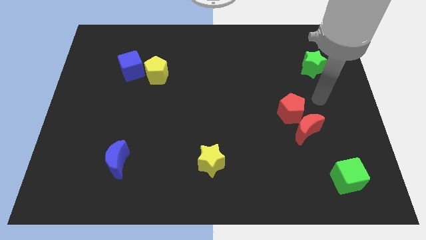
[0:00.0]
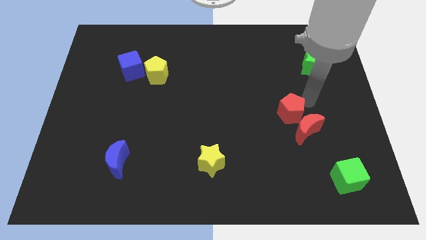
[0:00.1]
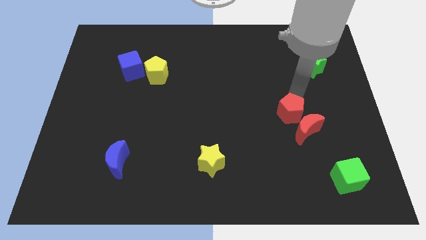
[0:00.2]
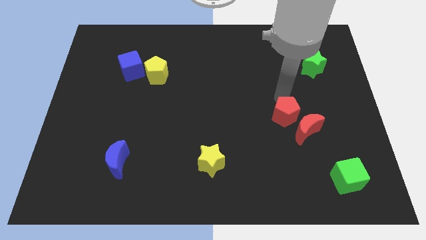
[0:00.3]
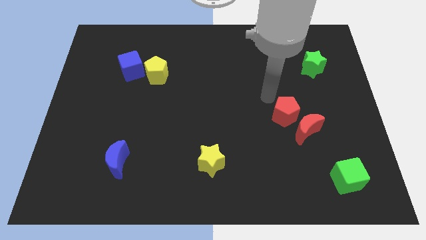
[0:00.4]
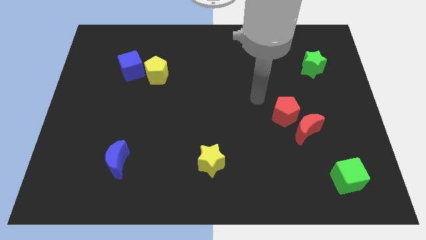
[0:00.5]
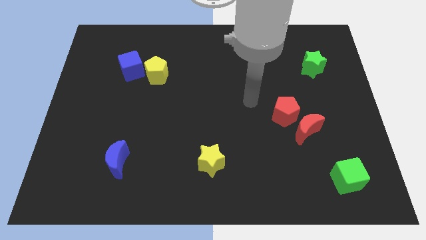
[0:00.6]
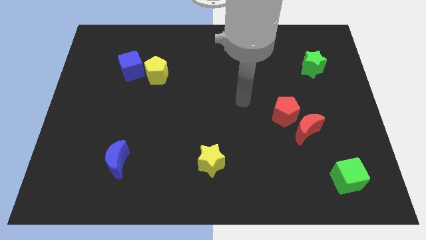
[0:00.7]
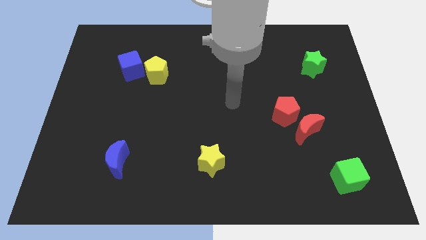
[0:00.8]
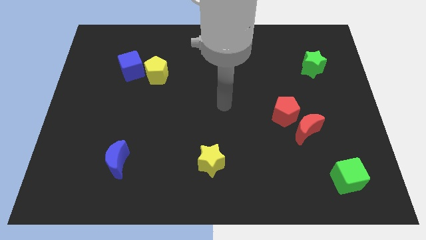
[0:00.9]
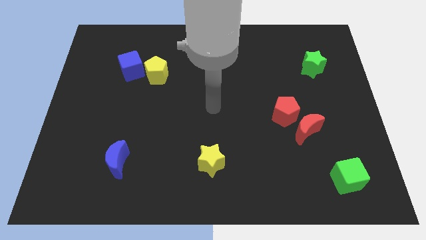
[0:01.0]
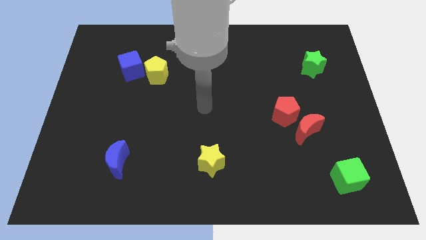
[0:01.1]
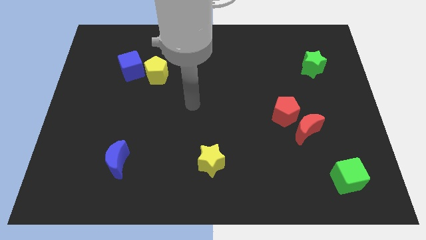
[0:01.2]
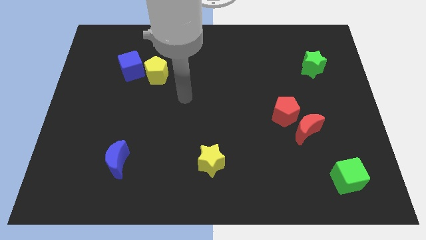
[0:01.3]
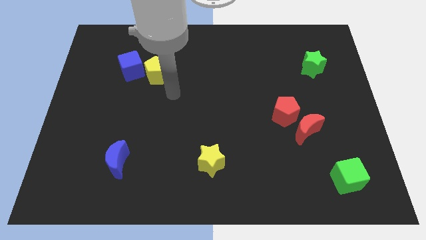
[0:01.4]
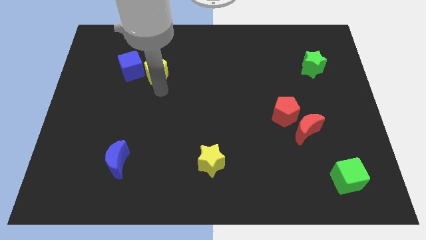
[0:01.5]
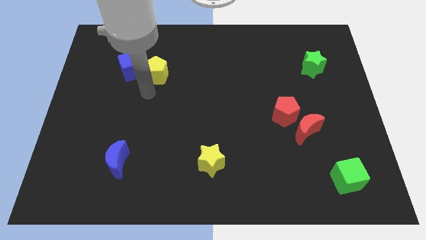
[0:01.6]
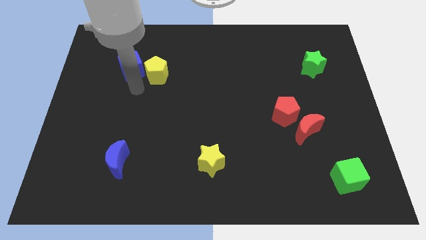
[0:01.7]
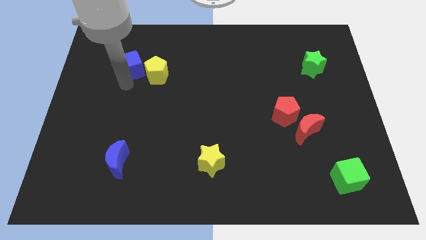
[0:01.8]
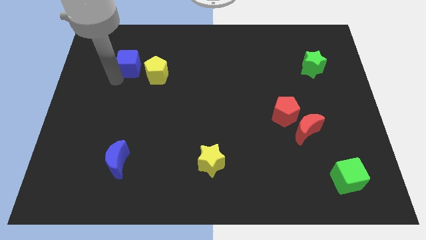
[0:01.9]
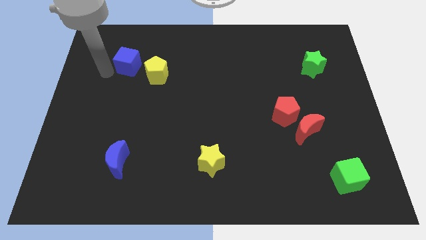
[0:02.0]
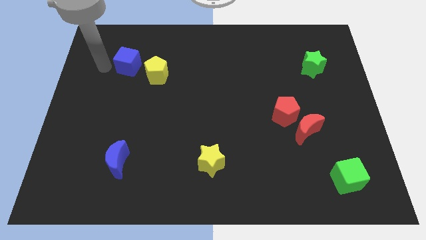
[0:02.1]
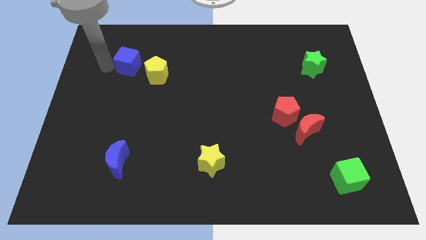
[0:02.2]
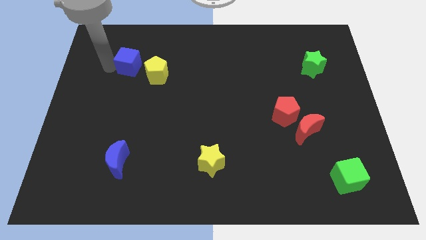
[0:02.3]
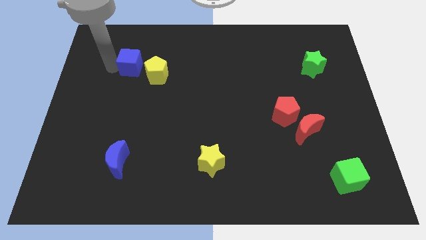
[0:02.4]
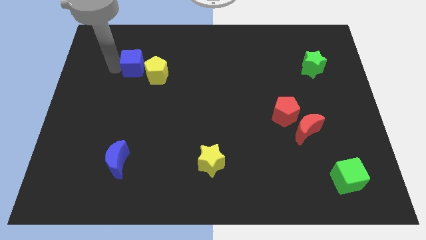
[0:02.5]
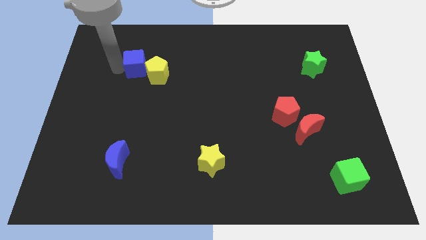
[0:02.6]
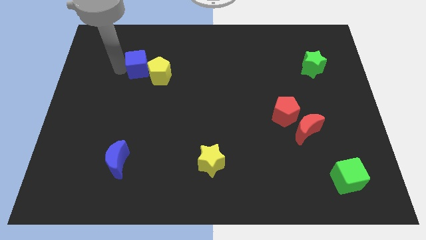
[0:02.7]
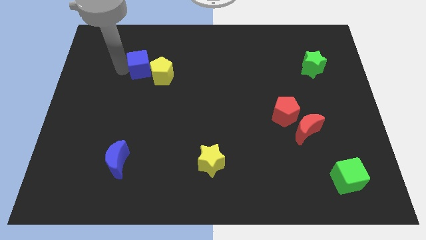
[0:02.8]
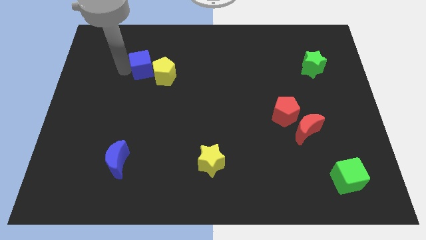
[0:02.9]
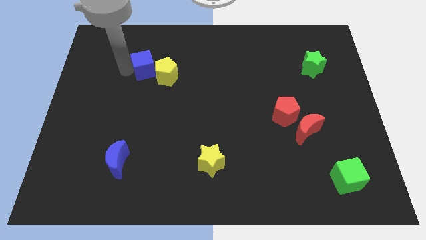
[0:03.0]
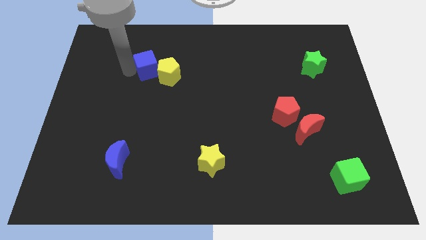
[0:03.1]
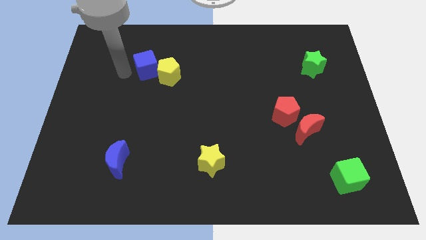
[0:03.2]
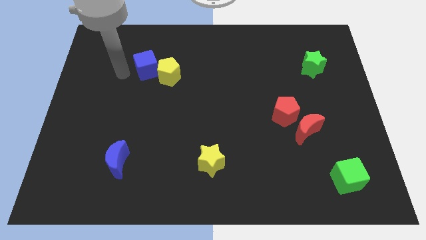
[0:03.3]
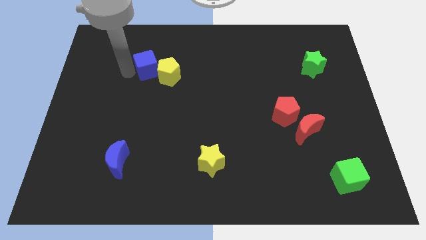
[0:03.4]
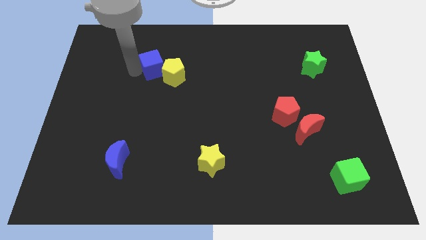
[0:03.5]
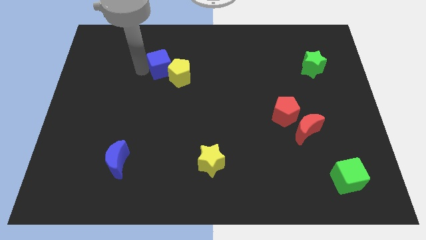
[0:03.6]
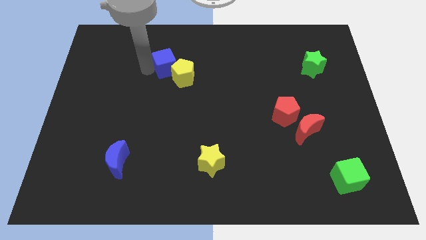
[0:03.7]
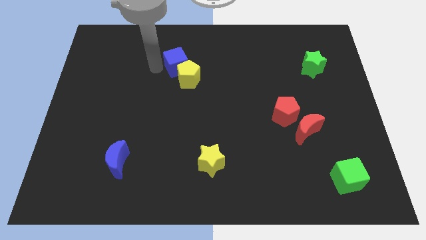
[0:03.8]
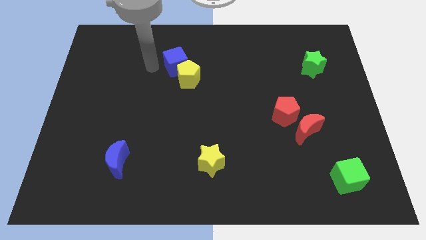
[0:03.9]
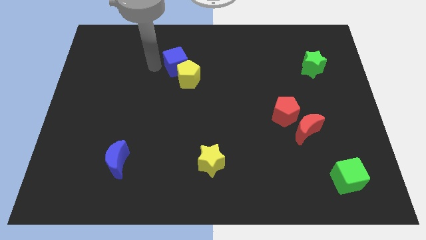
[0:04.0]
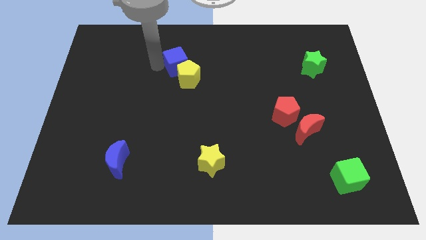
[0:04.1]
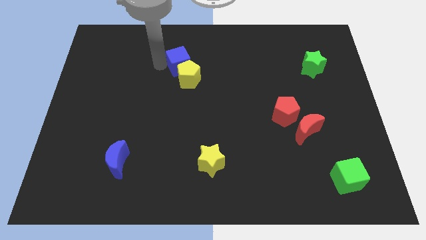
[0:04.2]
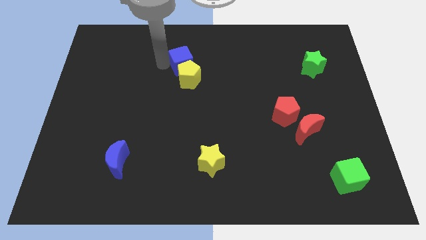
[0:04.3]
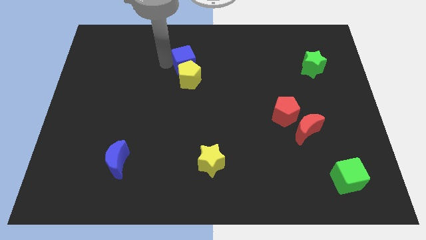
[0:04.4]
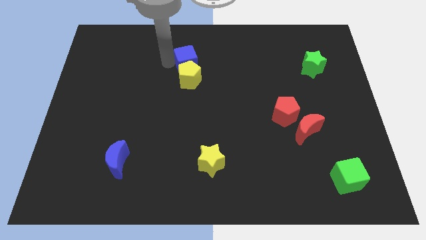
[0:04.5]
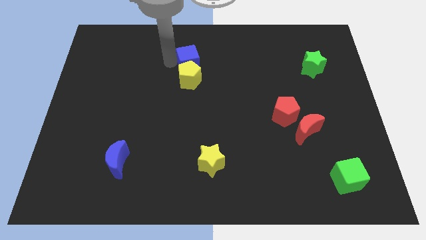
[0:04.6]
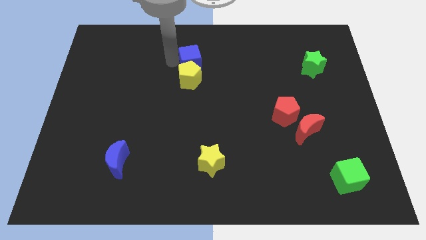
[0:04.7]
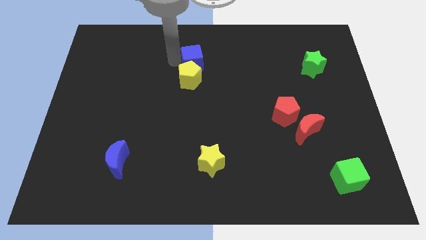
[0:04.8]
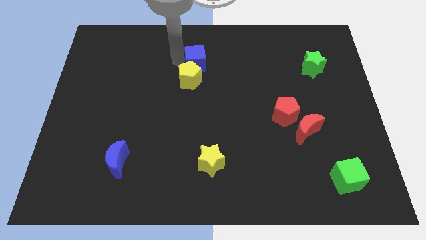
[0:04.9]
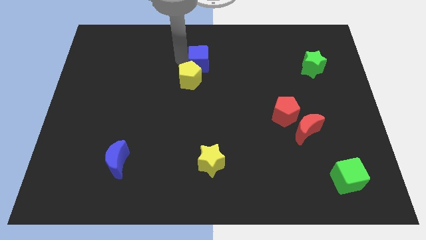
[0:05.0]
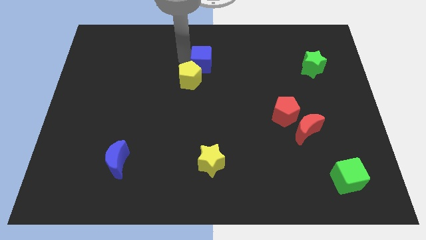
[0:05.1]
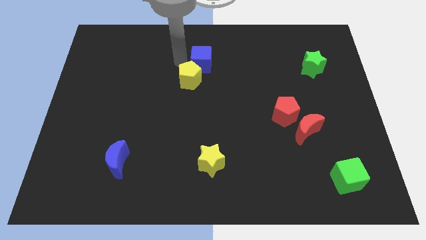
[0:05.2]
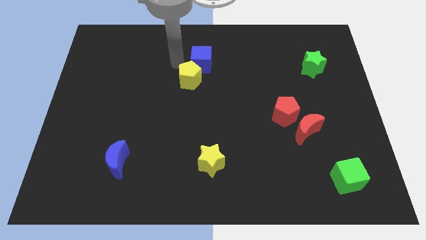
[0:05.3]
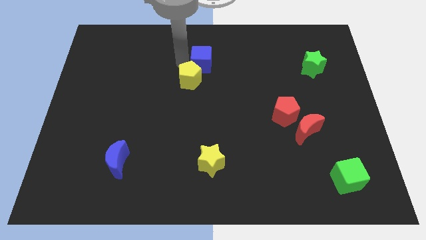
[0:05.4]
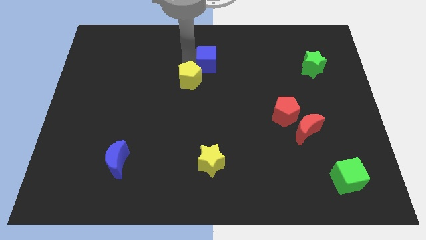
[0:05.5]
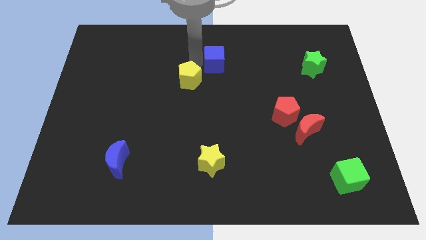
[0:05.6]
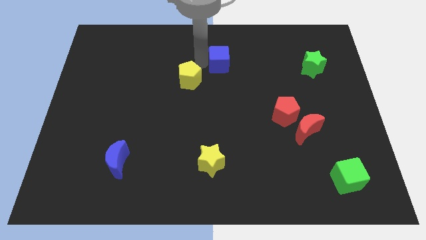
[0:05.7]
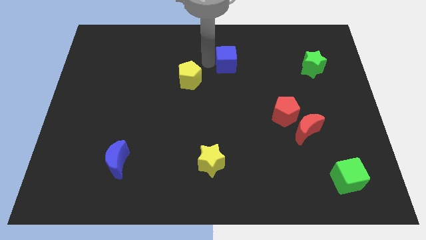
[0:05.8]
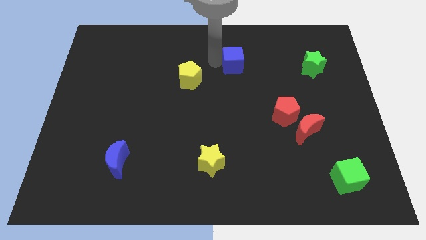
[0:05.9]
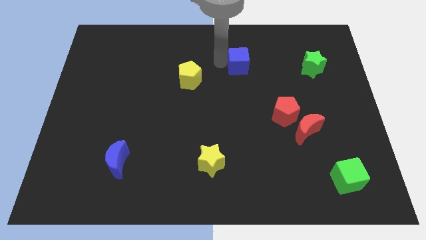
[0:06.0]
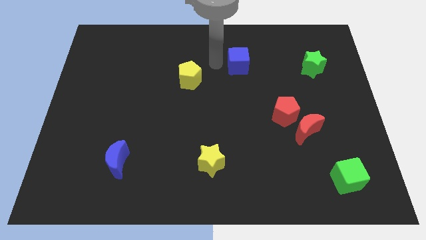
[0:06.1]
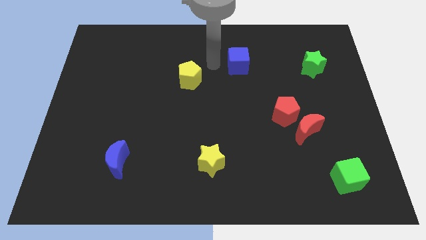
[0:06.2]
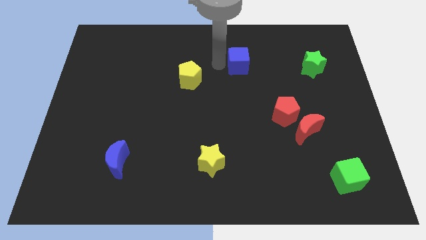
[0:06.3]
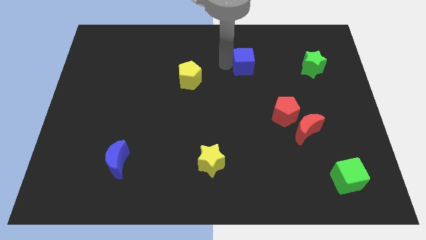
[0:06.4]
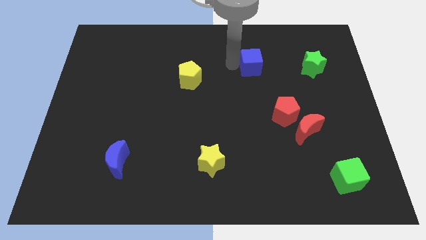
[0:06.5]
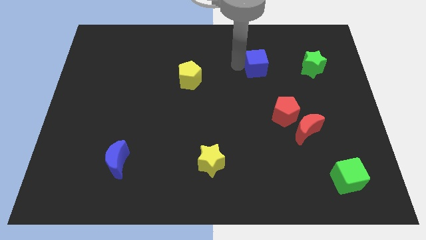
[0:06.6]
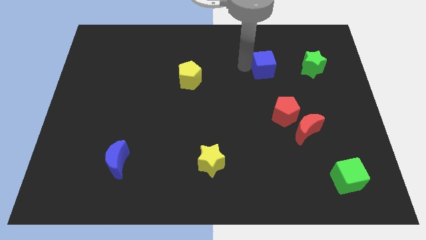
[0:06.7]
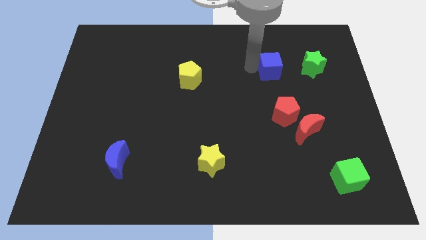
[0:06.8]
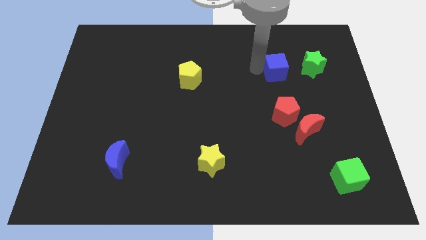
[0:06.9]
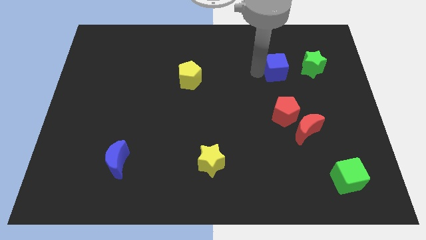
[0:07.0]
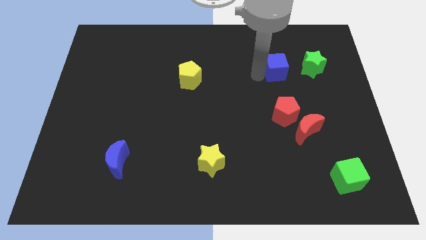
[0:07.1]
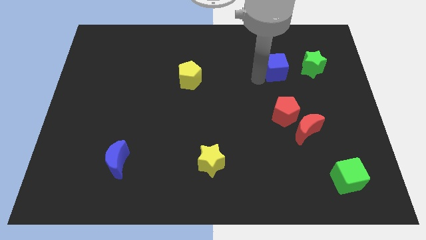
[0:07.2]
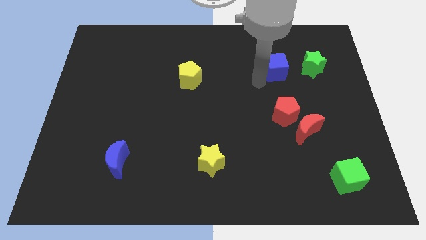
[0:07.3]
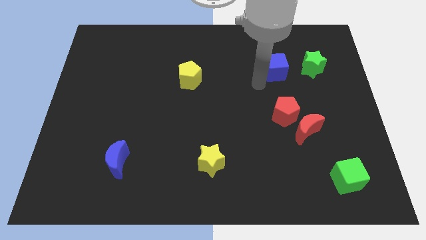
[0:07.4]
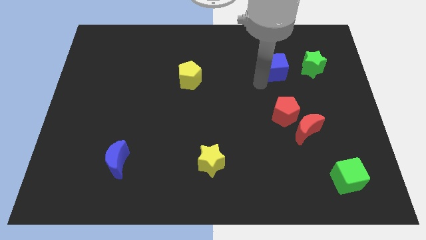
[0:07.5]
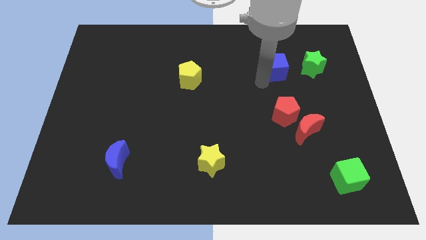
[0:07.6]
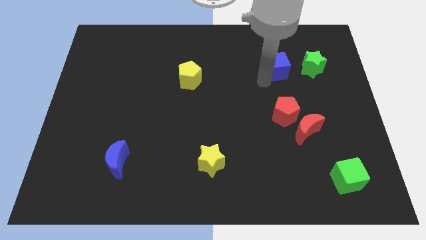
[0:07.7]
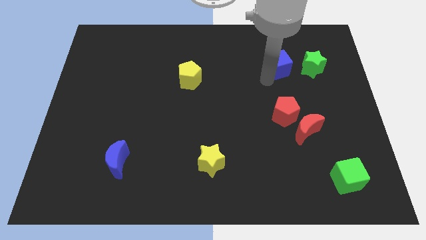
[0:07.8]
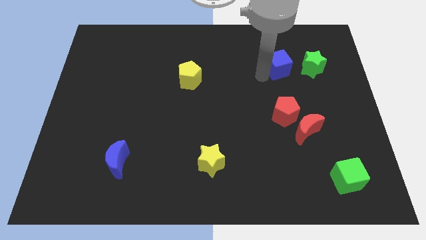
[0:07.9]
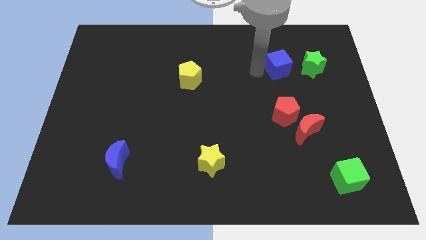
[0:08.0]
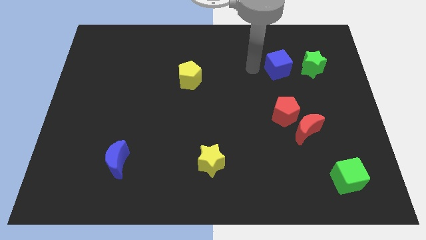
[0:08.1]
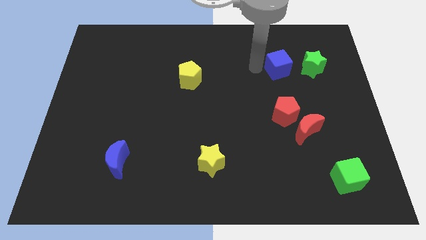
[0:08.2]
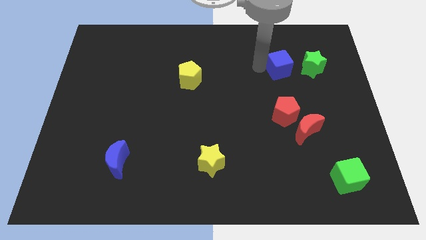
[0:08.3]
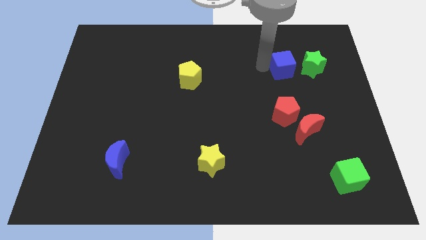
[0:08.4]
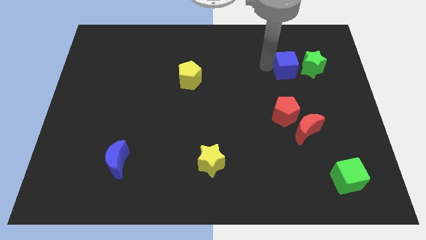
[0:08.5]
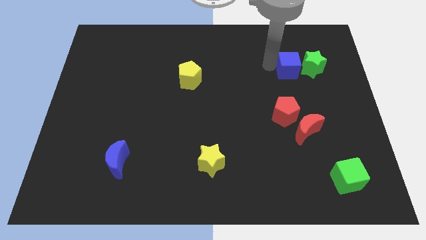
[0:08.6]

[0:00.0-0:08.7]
move the blue cube next to the green star
